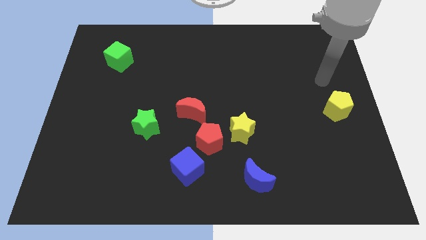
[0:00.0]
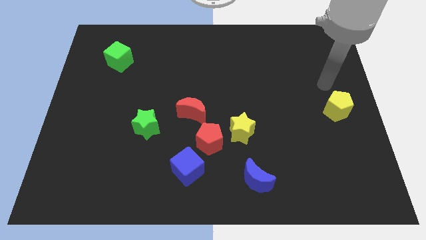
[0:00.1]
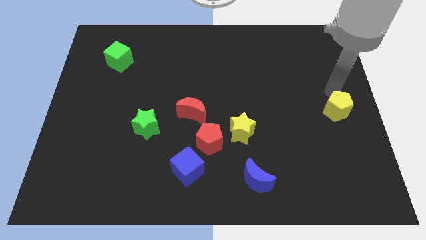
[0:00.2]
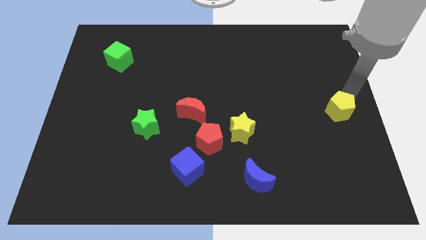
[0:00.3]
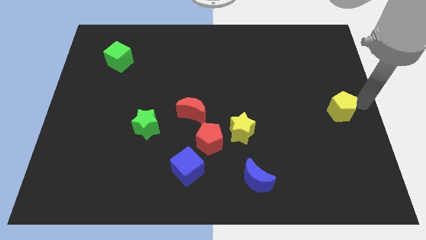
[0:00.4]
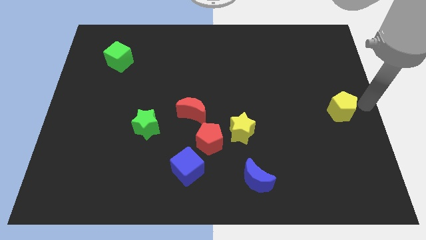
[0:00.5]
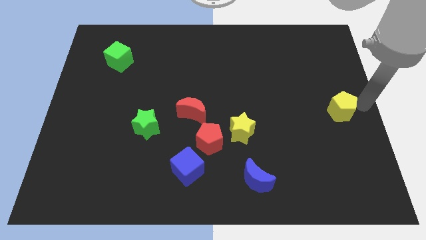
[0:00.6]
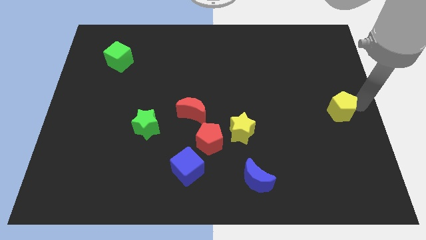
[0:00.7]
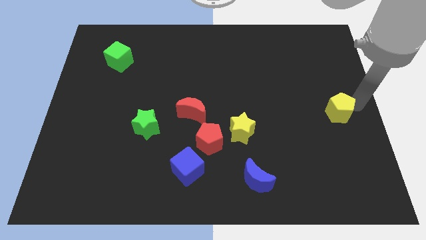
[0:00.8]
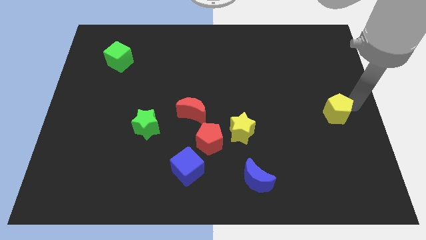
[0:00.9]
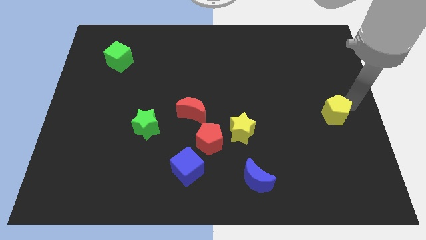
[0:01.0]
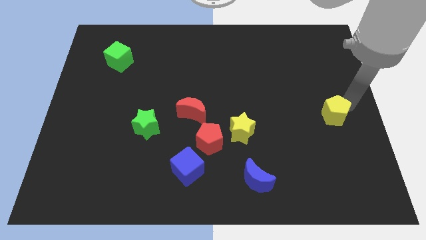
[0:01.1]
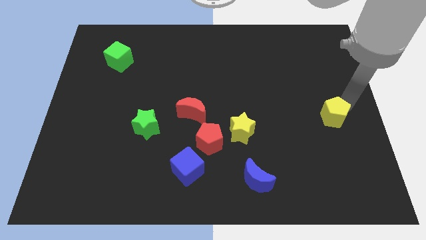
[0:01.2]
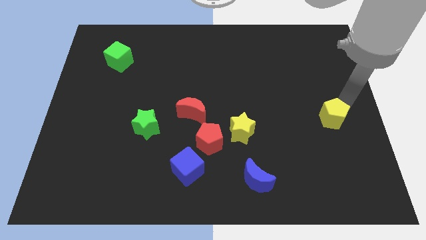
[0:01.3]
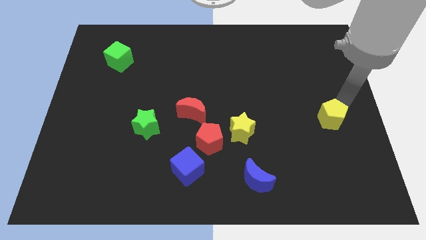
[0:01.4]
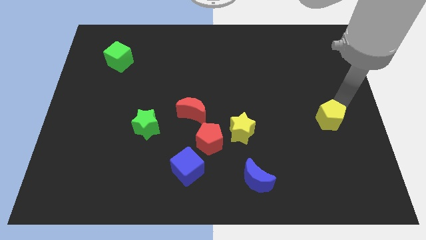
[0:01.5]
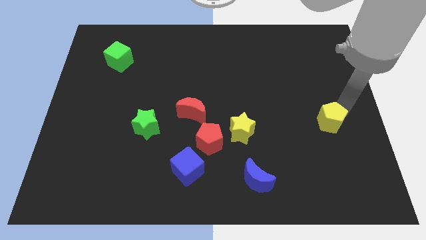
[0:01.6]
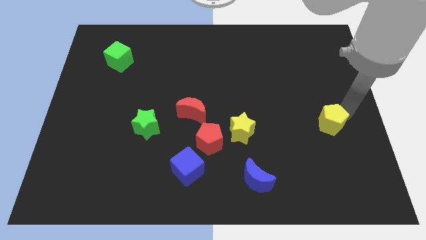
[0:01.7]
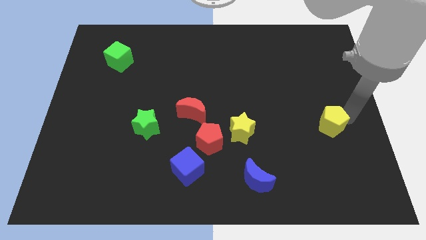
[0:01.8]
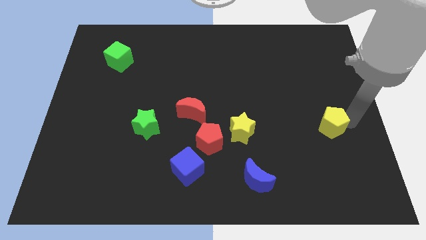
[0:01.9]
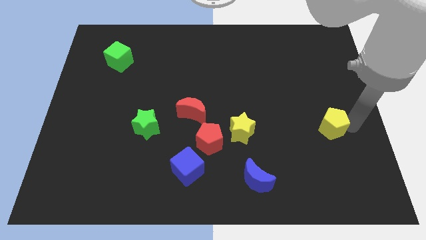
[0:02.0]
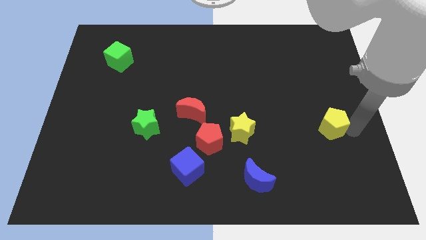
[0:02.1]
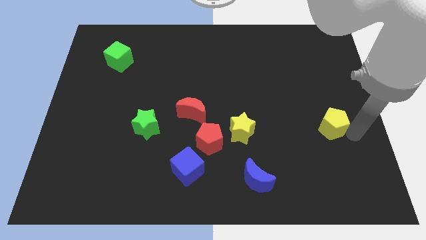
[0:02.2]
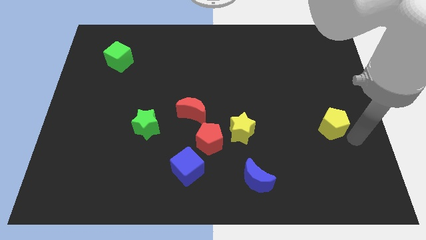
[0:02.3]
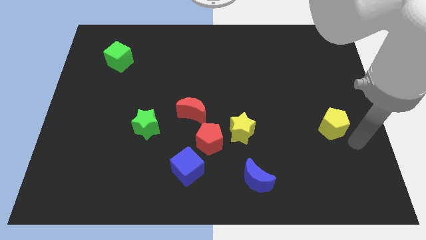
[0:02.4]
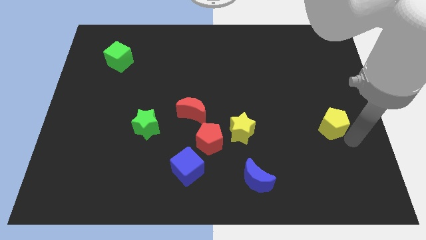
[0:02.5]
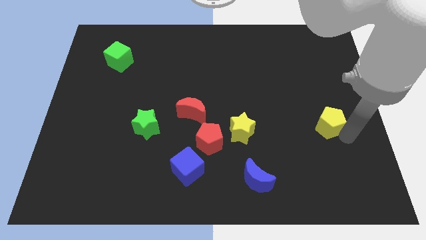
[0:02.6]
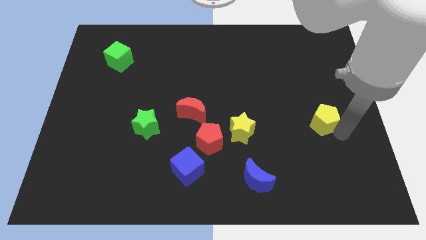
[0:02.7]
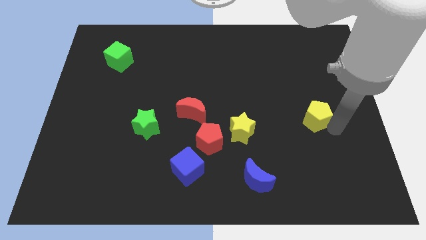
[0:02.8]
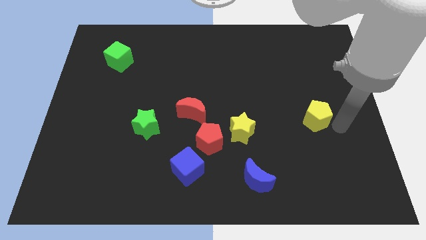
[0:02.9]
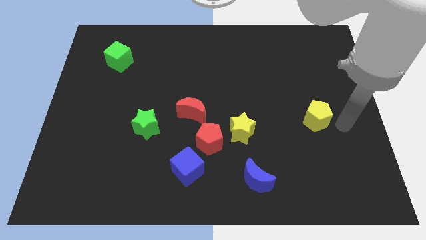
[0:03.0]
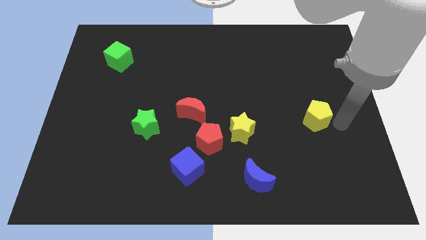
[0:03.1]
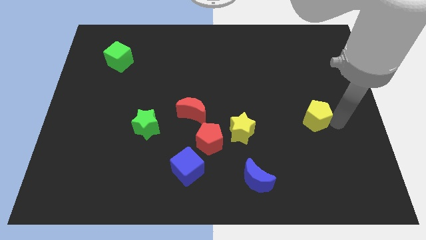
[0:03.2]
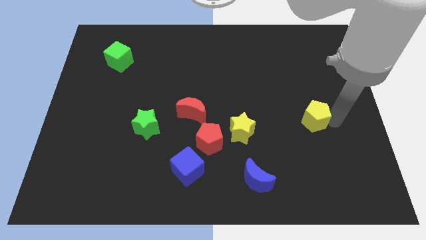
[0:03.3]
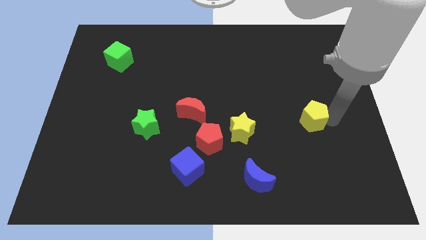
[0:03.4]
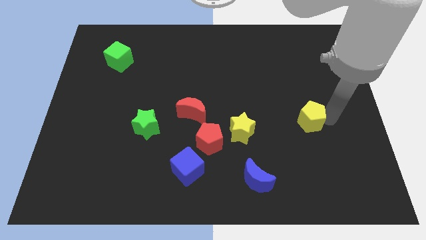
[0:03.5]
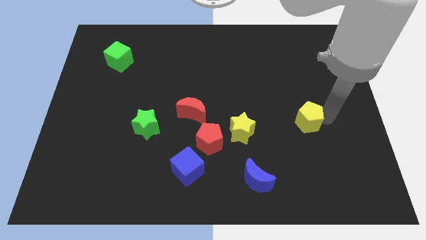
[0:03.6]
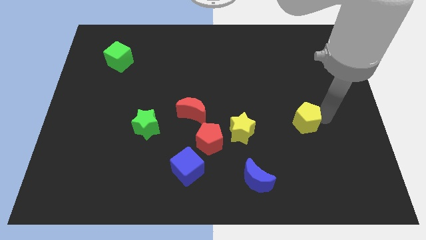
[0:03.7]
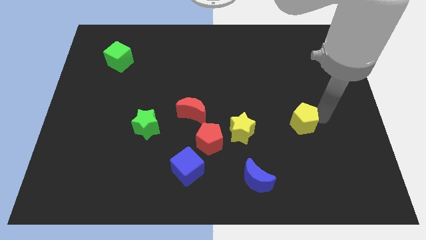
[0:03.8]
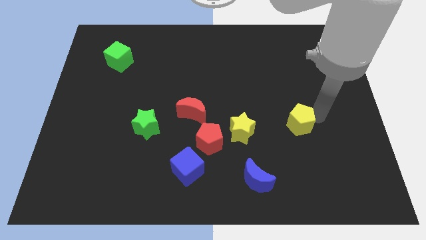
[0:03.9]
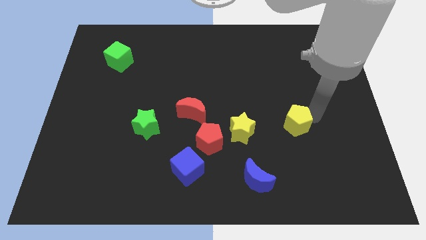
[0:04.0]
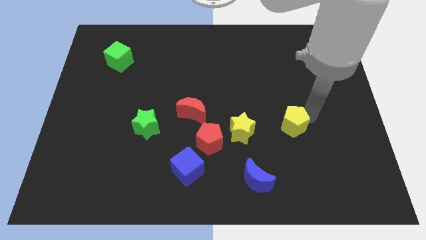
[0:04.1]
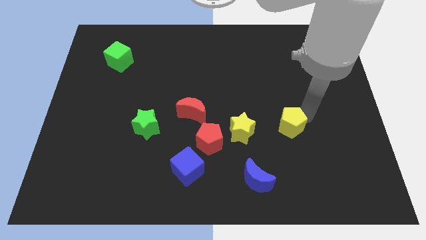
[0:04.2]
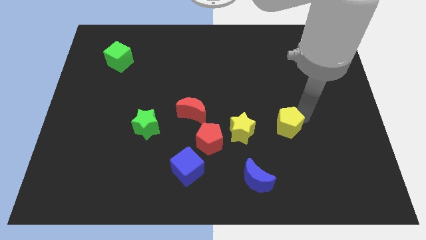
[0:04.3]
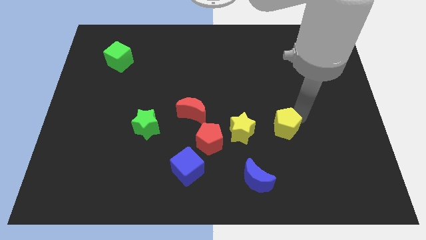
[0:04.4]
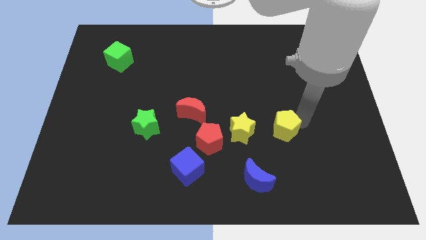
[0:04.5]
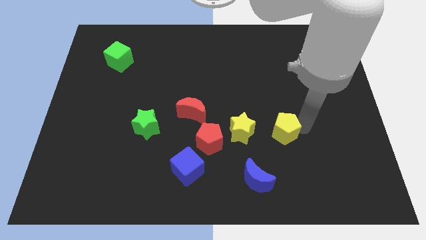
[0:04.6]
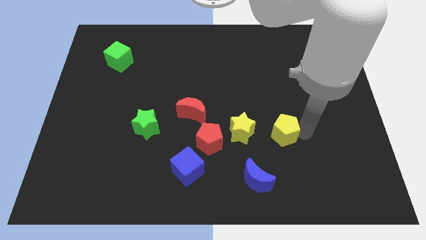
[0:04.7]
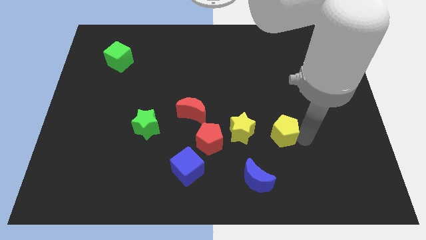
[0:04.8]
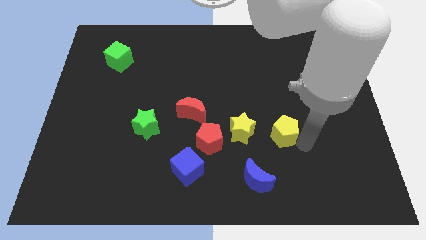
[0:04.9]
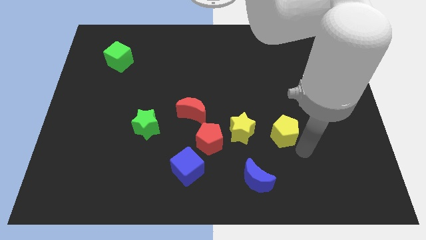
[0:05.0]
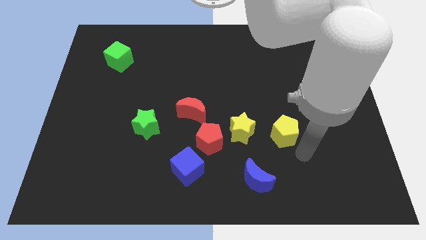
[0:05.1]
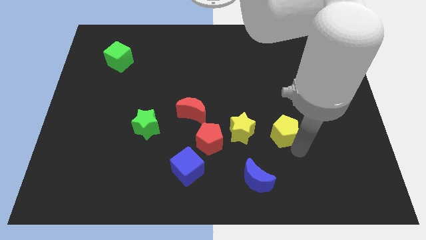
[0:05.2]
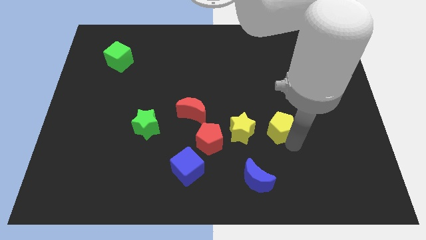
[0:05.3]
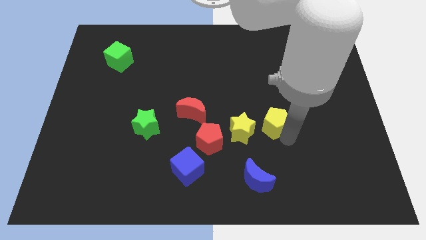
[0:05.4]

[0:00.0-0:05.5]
put the yellow pentagon diagonally up and to the right of the yellow star
